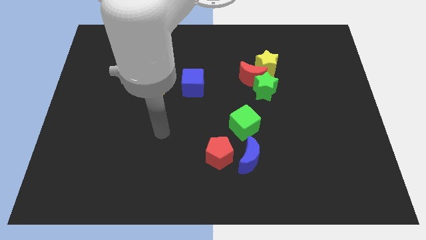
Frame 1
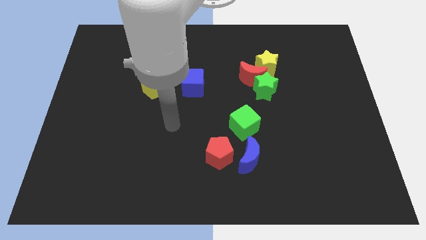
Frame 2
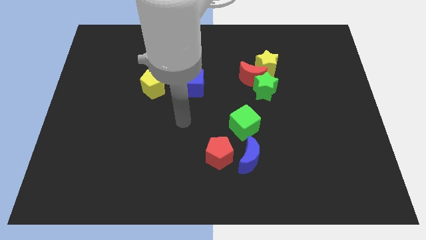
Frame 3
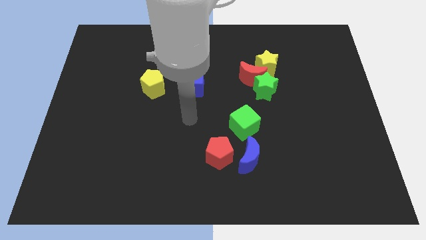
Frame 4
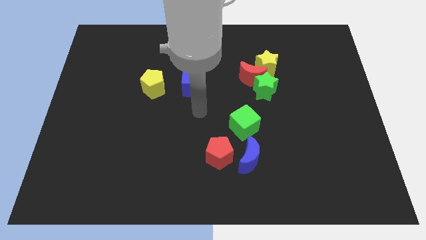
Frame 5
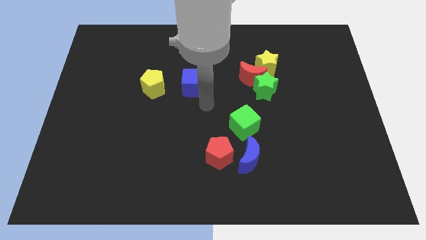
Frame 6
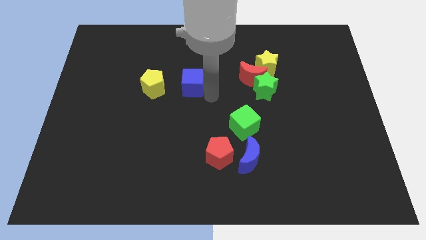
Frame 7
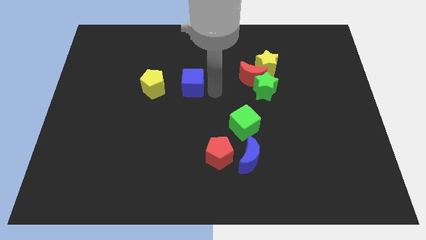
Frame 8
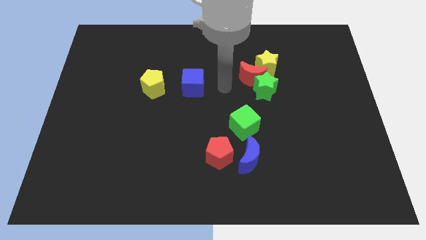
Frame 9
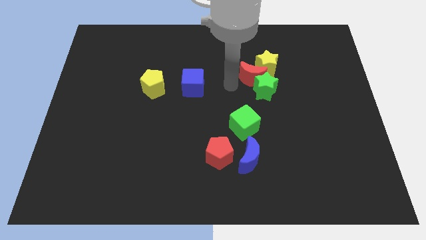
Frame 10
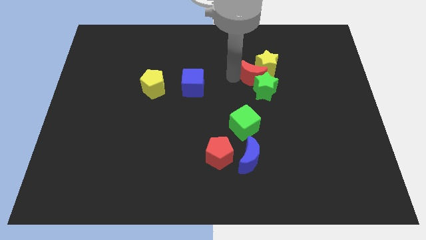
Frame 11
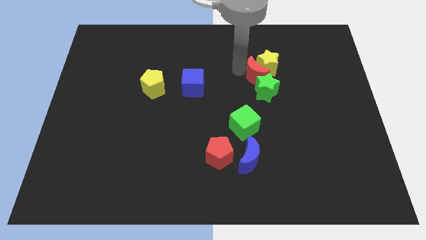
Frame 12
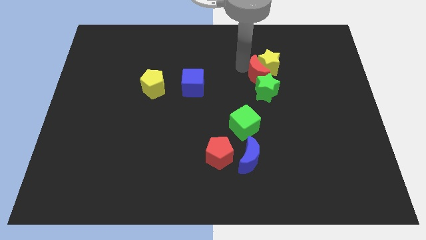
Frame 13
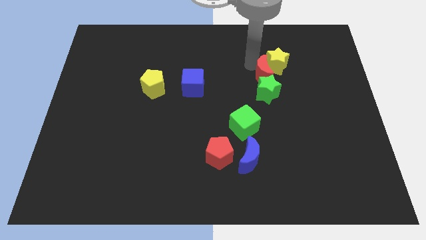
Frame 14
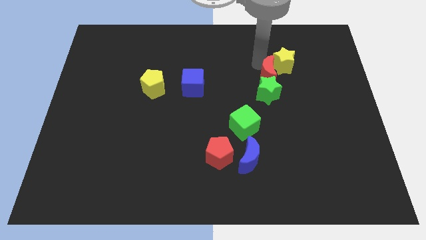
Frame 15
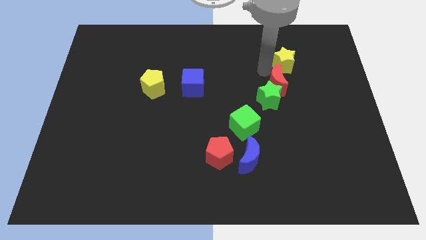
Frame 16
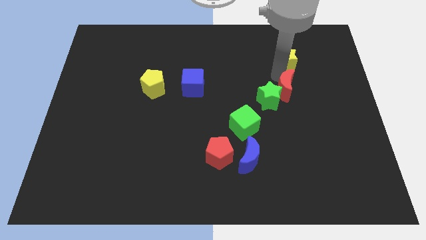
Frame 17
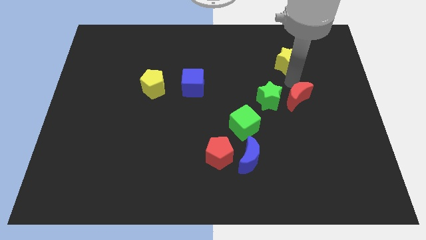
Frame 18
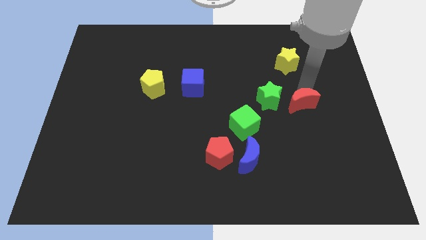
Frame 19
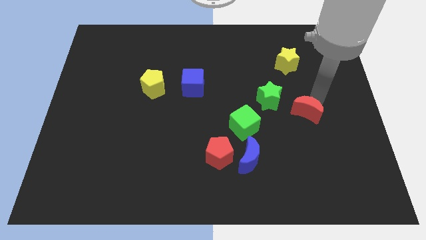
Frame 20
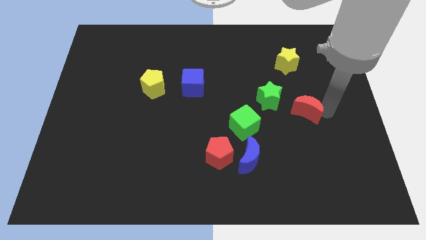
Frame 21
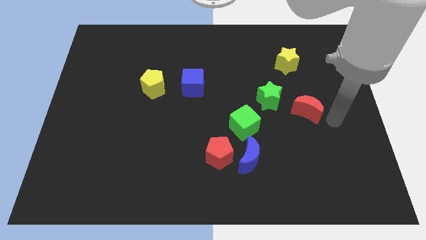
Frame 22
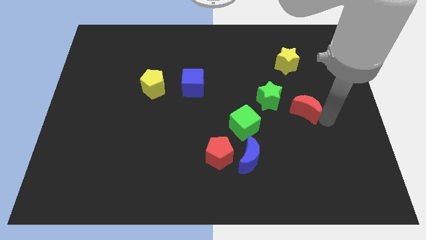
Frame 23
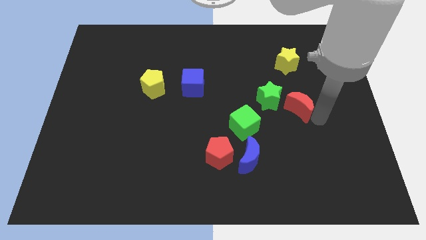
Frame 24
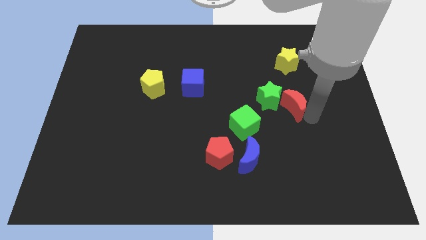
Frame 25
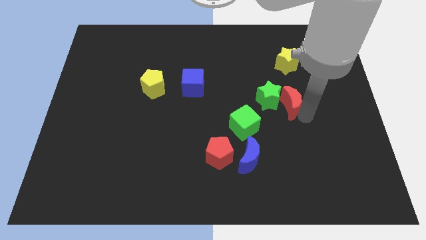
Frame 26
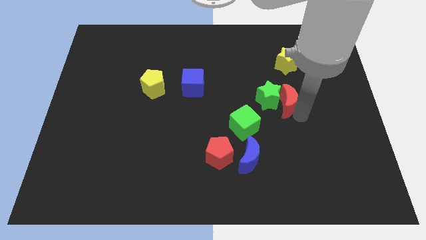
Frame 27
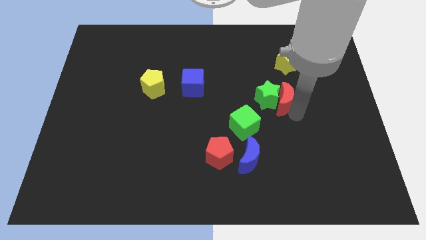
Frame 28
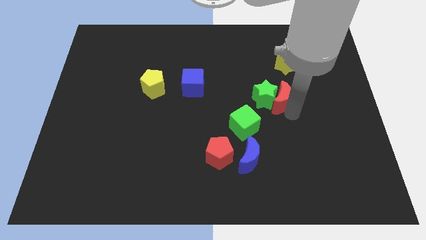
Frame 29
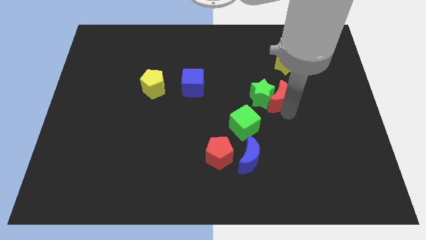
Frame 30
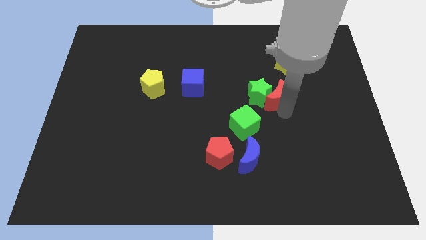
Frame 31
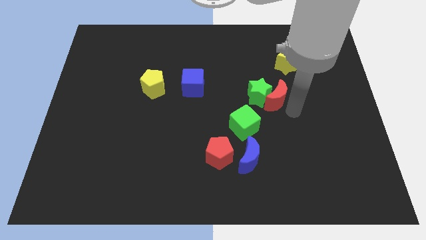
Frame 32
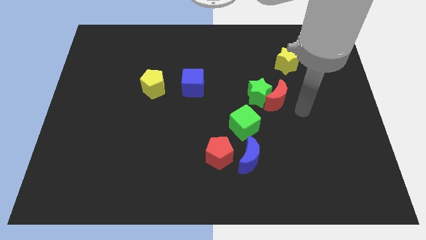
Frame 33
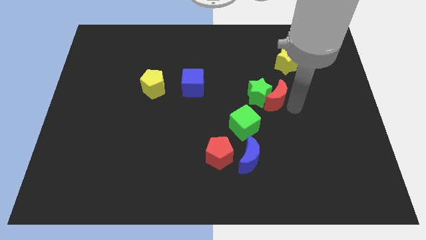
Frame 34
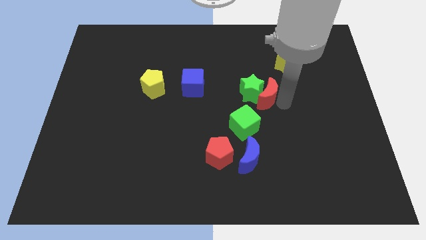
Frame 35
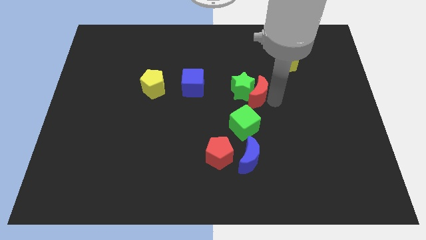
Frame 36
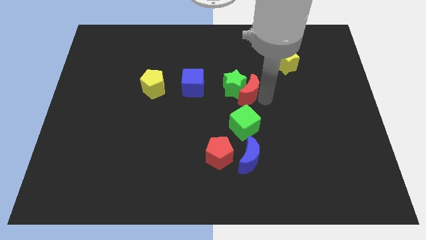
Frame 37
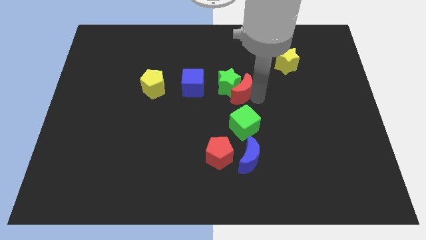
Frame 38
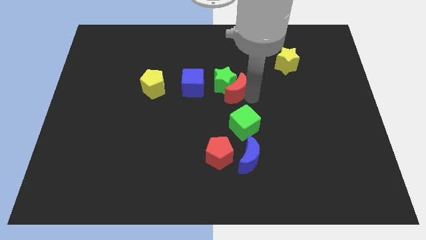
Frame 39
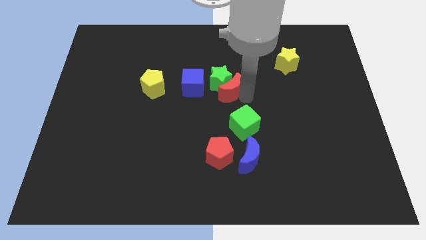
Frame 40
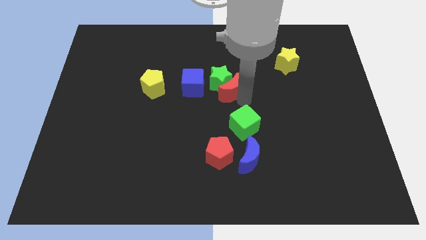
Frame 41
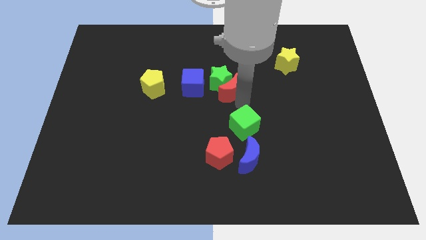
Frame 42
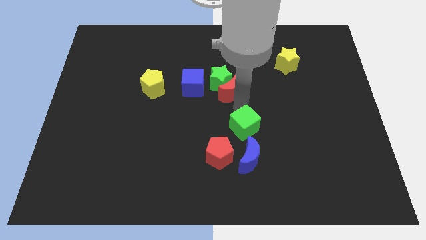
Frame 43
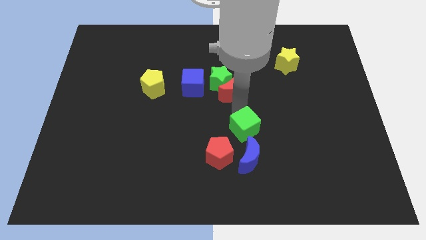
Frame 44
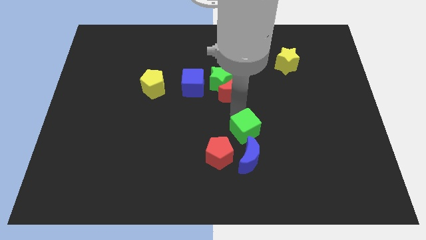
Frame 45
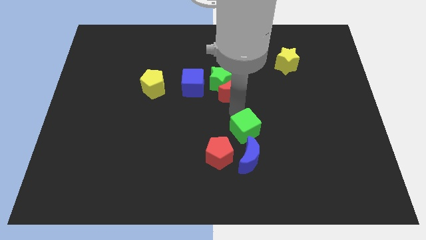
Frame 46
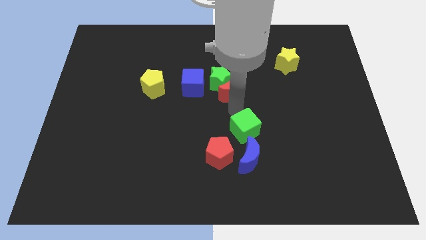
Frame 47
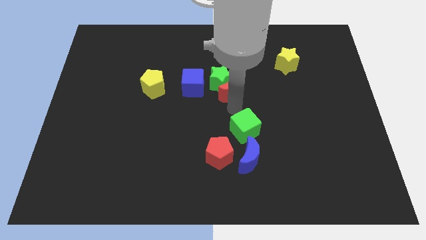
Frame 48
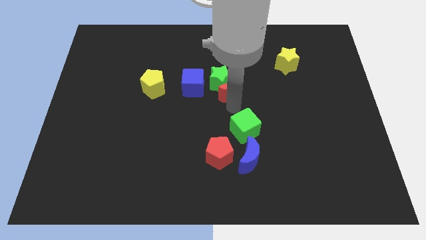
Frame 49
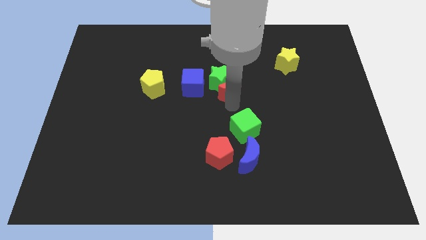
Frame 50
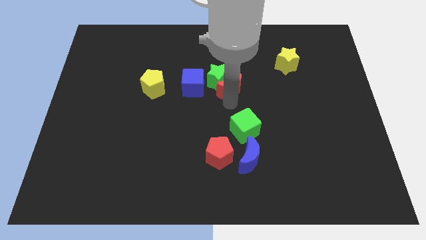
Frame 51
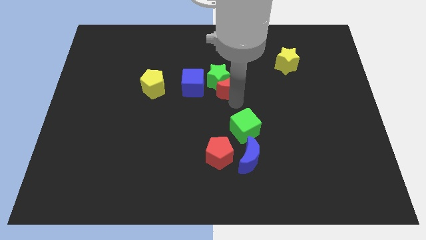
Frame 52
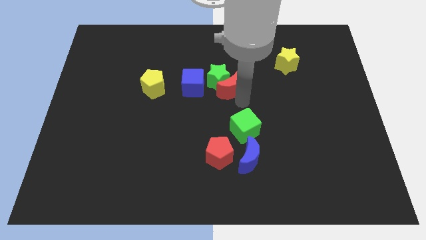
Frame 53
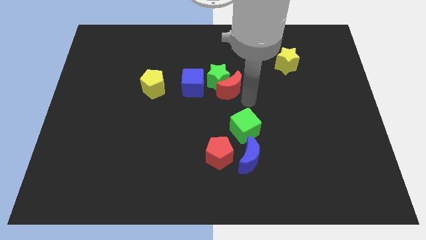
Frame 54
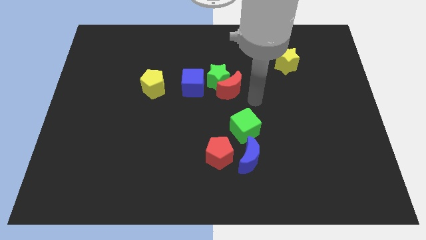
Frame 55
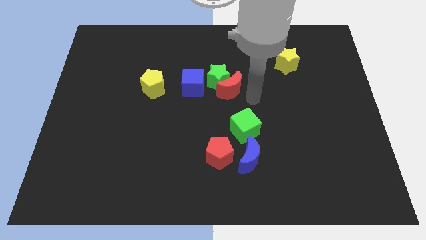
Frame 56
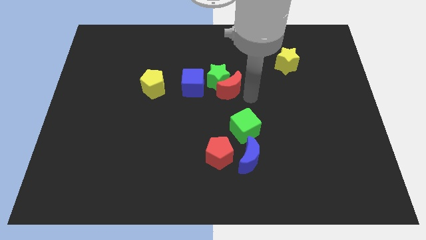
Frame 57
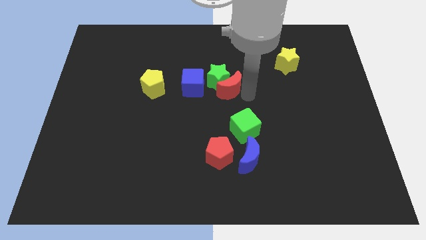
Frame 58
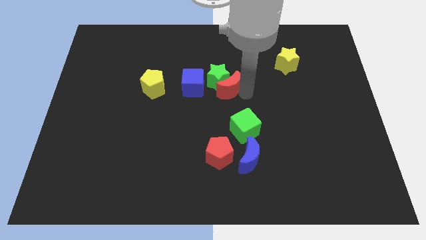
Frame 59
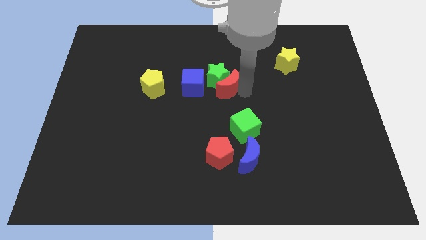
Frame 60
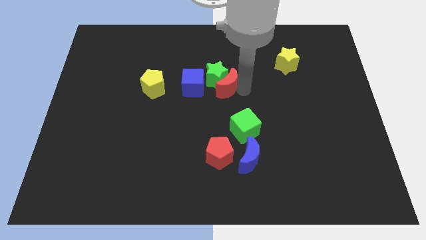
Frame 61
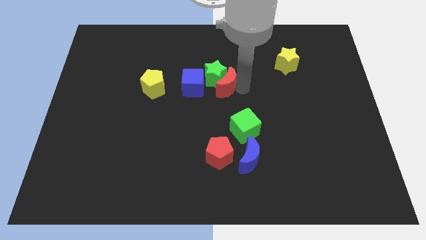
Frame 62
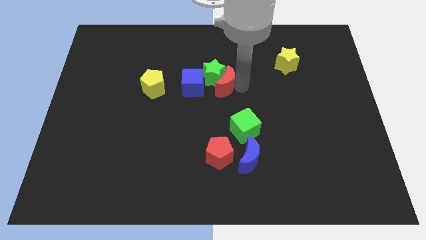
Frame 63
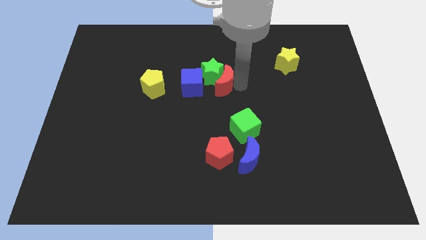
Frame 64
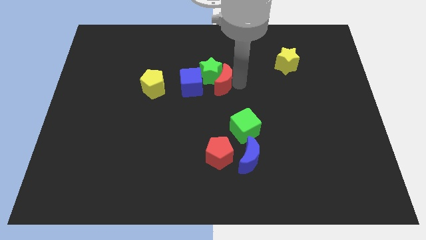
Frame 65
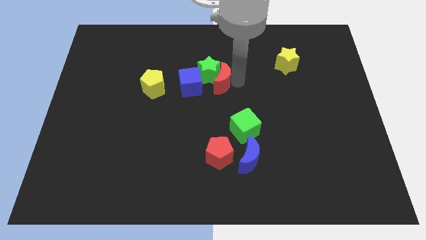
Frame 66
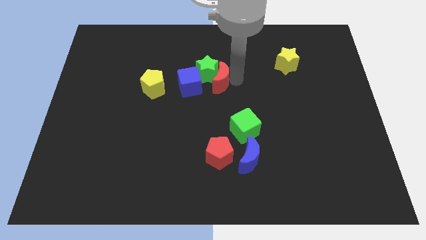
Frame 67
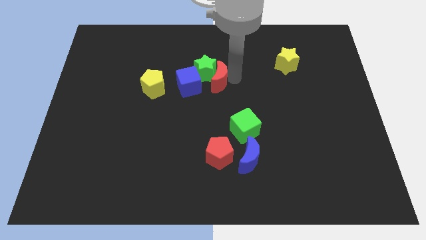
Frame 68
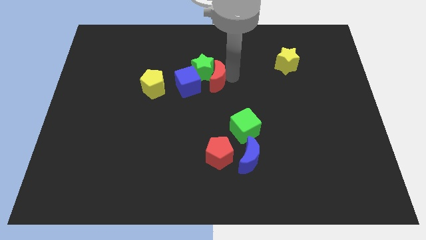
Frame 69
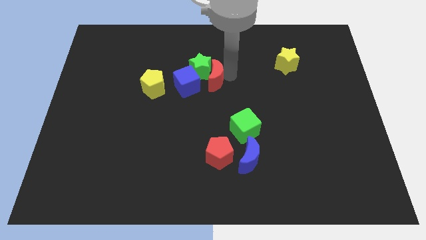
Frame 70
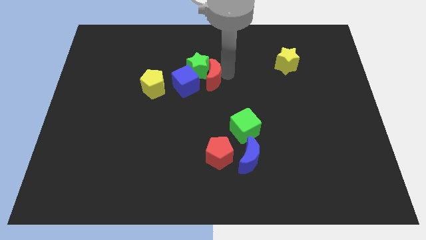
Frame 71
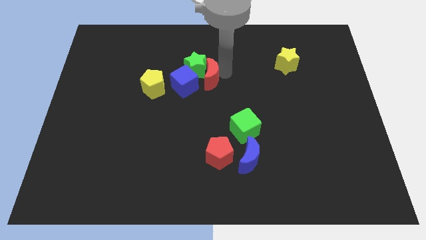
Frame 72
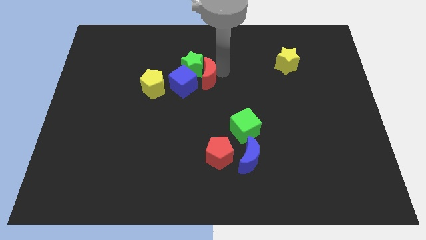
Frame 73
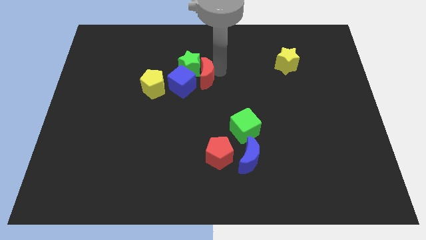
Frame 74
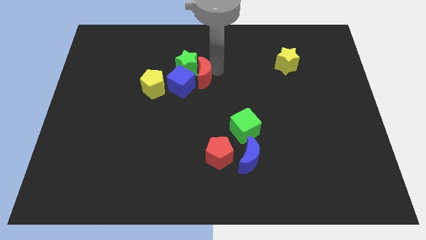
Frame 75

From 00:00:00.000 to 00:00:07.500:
move the red moon close to the blue cube
